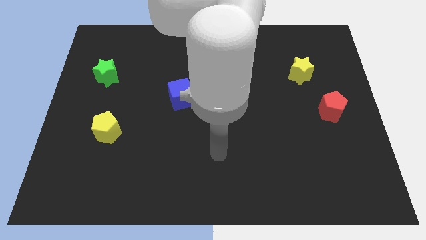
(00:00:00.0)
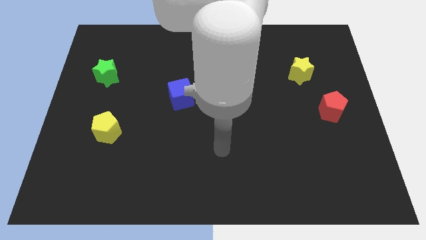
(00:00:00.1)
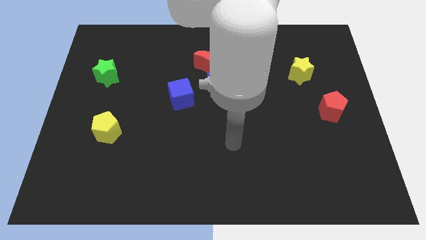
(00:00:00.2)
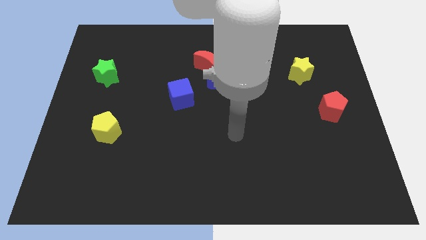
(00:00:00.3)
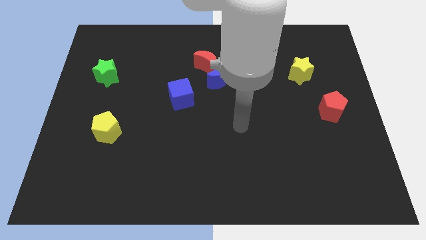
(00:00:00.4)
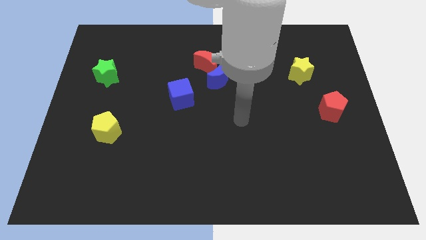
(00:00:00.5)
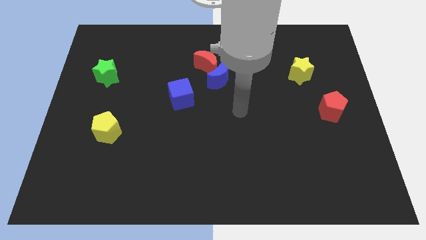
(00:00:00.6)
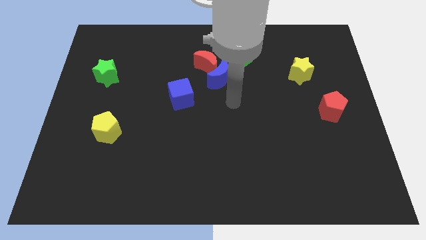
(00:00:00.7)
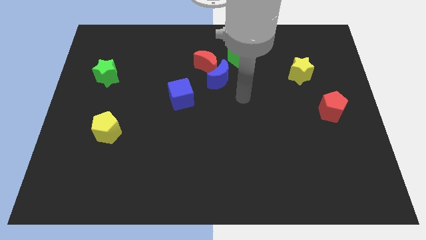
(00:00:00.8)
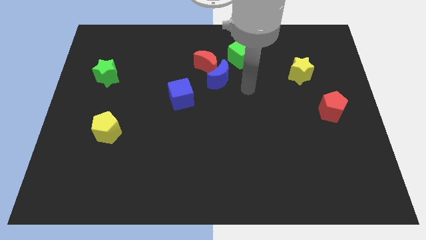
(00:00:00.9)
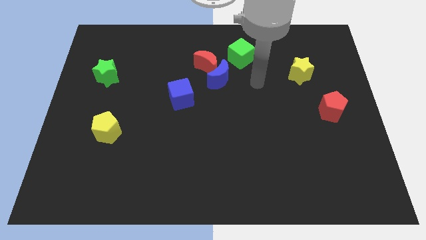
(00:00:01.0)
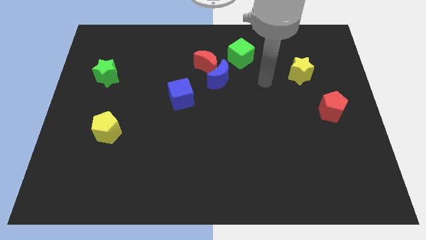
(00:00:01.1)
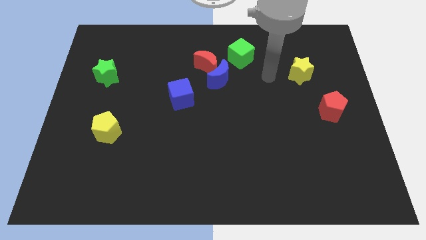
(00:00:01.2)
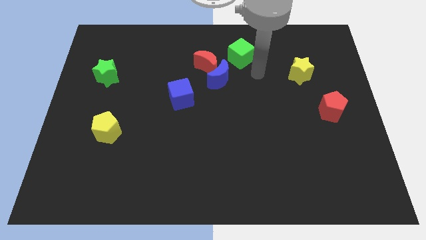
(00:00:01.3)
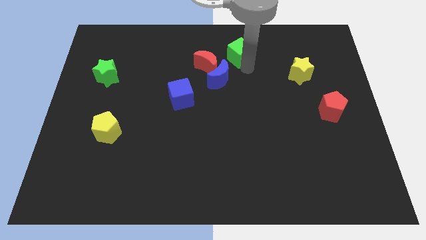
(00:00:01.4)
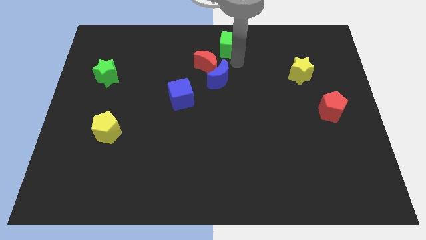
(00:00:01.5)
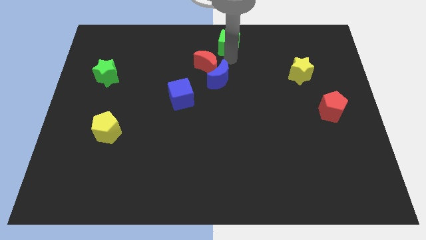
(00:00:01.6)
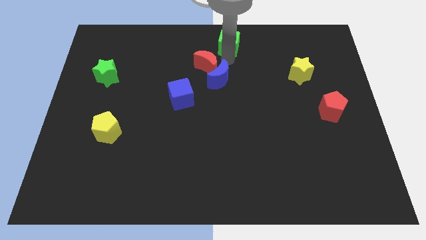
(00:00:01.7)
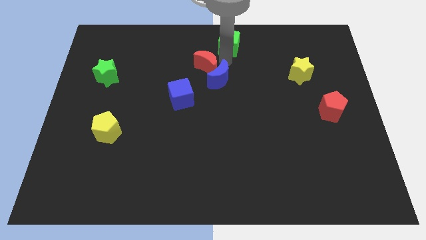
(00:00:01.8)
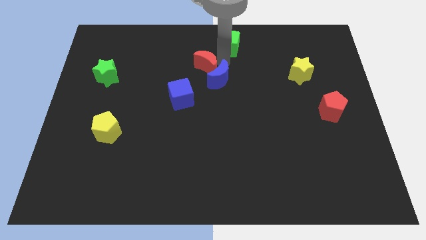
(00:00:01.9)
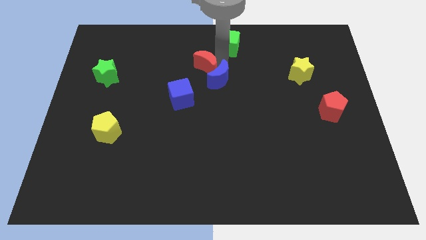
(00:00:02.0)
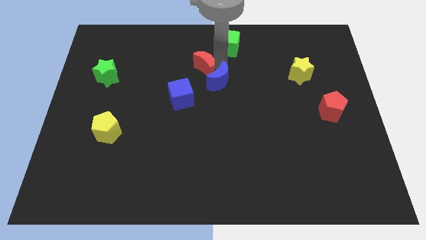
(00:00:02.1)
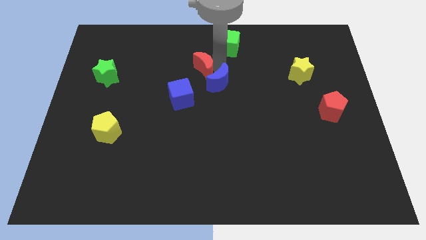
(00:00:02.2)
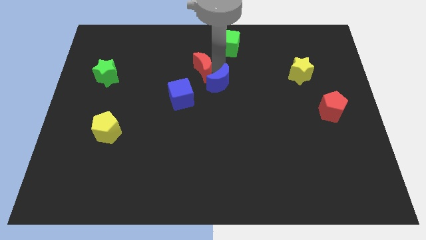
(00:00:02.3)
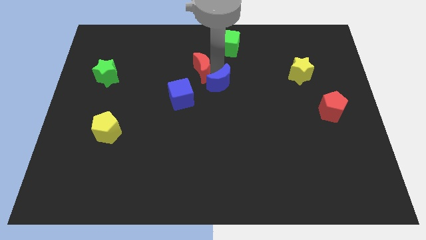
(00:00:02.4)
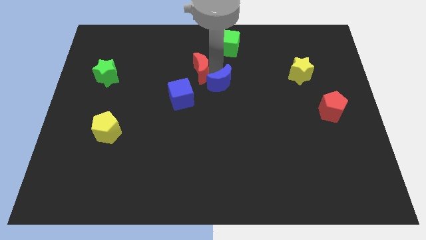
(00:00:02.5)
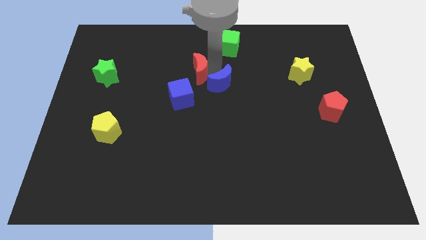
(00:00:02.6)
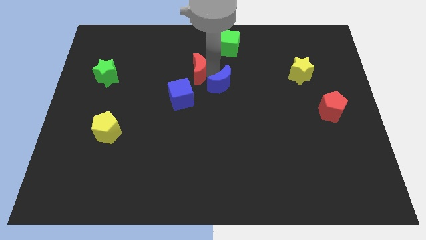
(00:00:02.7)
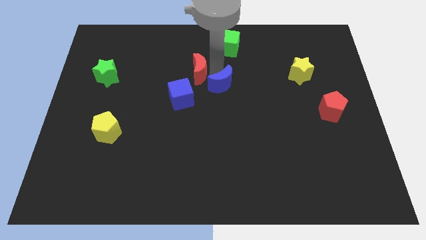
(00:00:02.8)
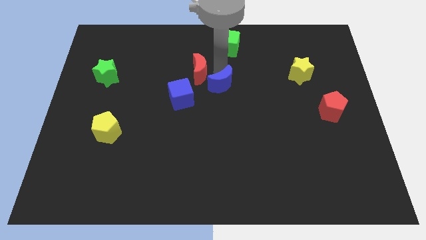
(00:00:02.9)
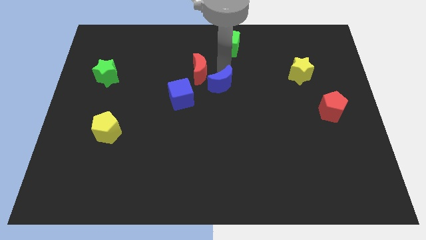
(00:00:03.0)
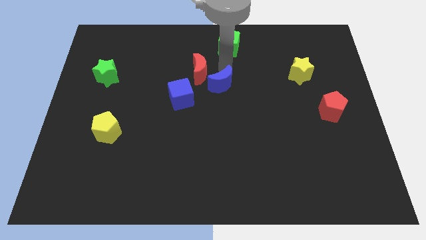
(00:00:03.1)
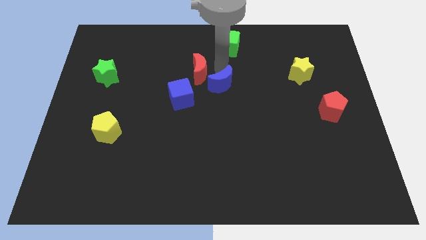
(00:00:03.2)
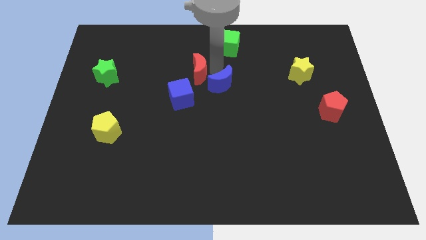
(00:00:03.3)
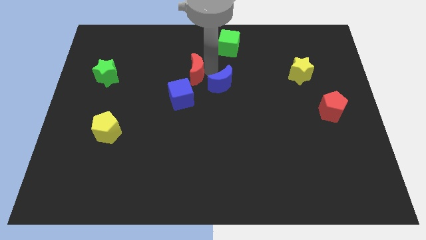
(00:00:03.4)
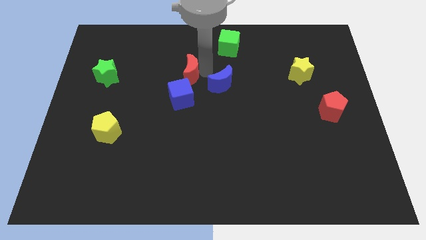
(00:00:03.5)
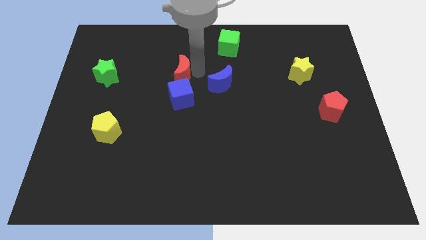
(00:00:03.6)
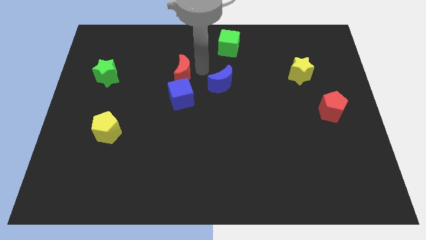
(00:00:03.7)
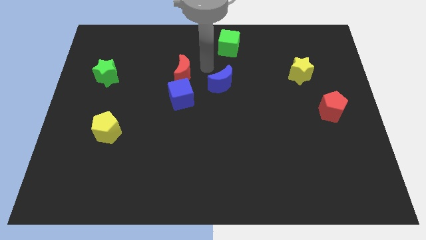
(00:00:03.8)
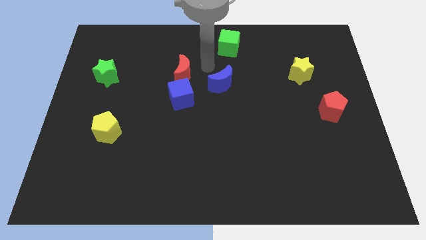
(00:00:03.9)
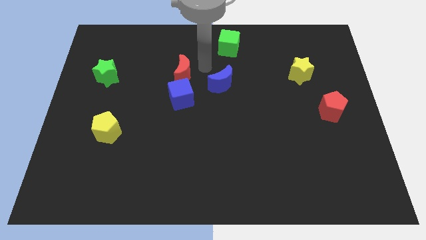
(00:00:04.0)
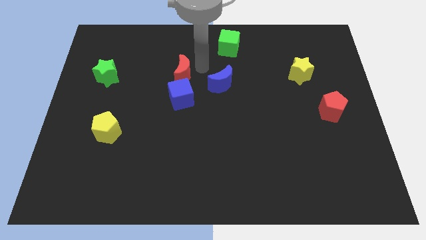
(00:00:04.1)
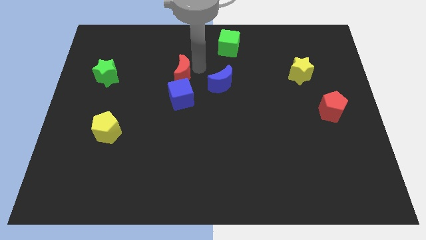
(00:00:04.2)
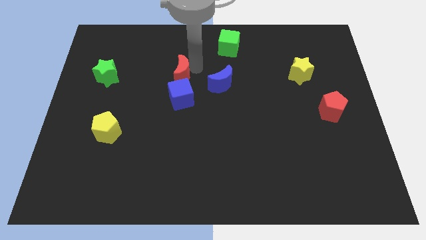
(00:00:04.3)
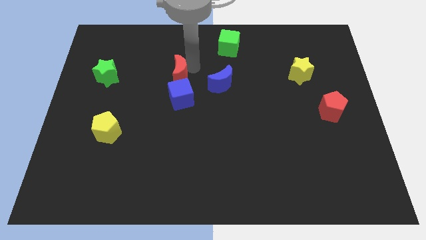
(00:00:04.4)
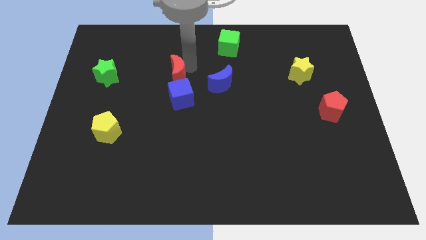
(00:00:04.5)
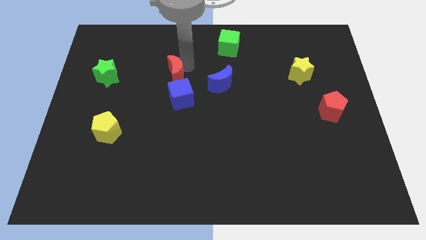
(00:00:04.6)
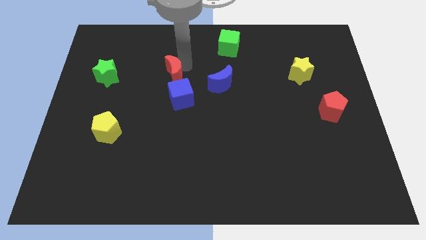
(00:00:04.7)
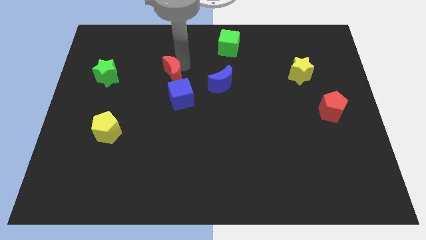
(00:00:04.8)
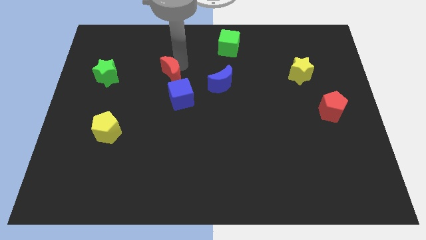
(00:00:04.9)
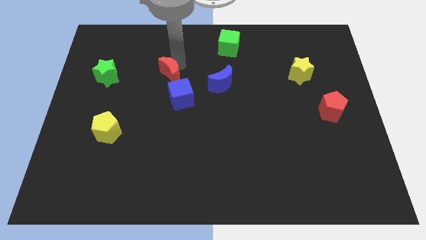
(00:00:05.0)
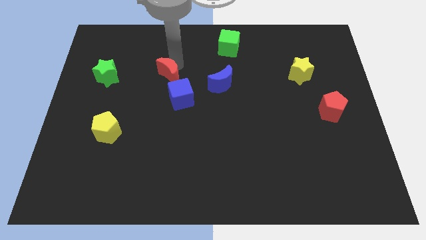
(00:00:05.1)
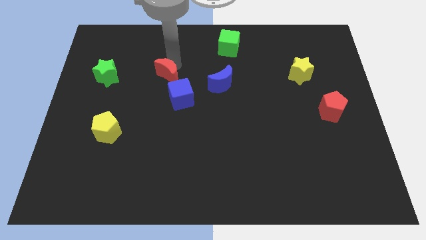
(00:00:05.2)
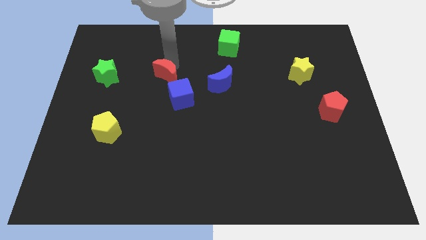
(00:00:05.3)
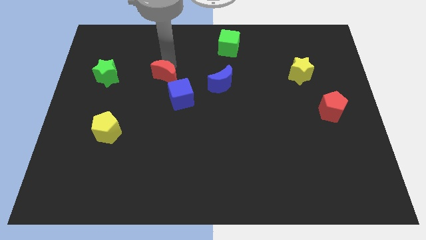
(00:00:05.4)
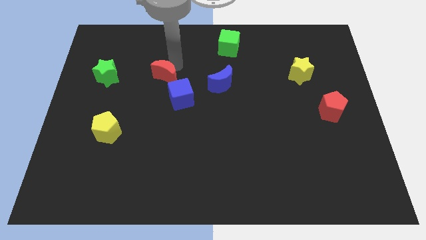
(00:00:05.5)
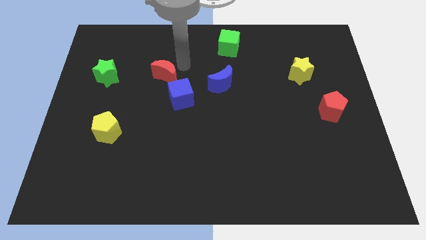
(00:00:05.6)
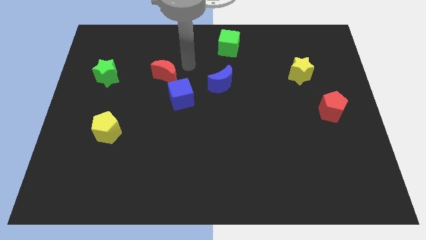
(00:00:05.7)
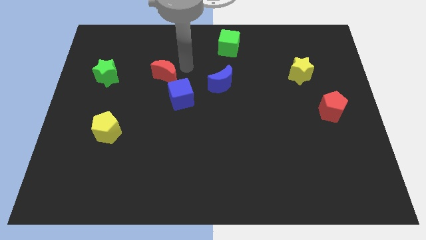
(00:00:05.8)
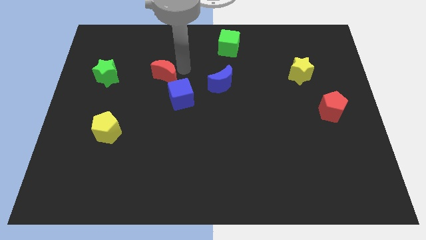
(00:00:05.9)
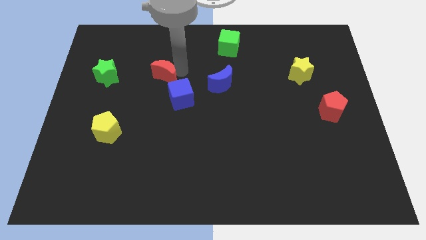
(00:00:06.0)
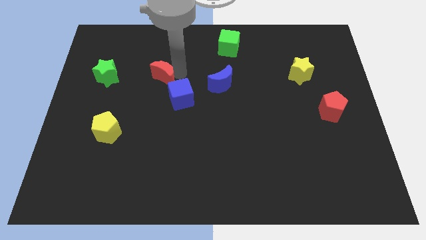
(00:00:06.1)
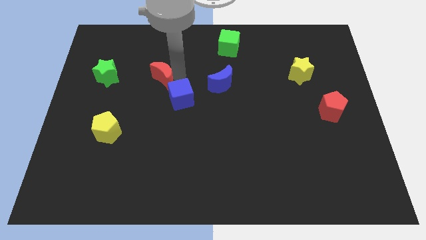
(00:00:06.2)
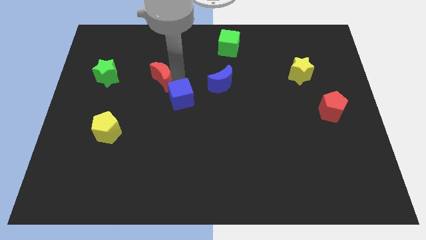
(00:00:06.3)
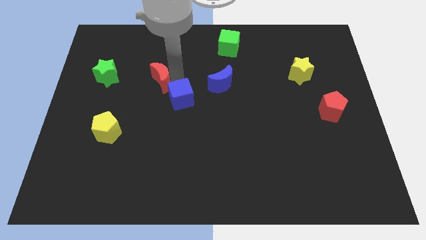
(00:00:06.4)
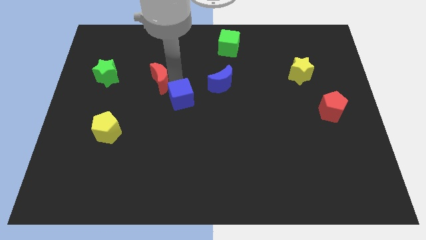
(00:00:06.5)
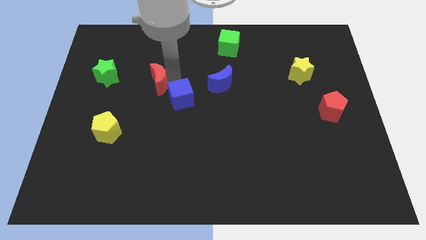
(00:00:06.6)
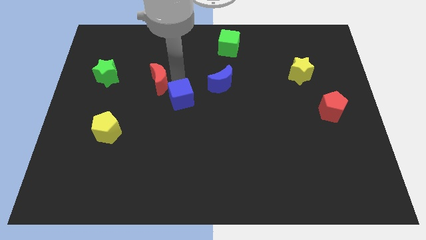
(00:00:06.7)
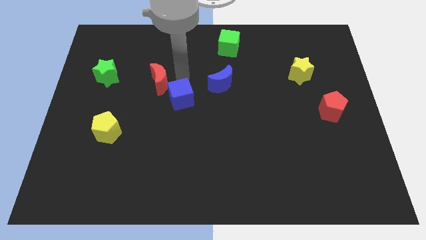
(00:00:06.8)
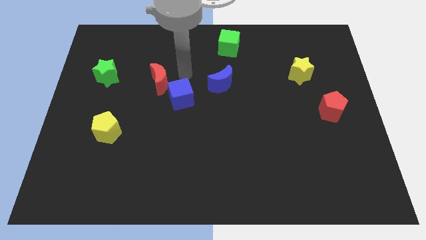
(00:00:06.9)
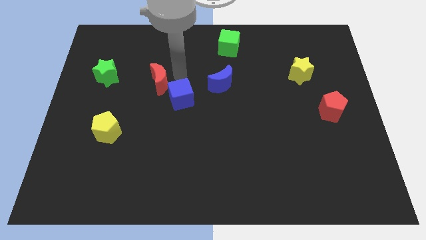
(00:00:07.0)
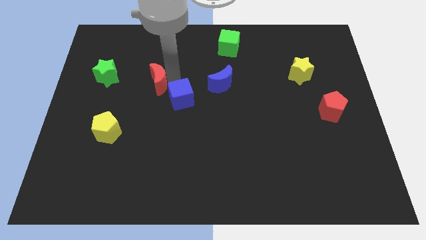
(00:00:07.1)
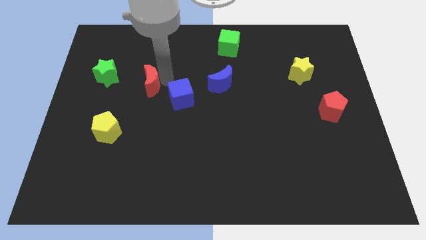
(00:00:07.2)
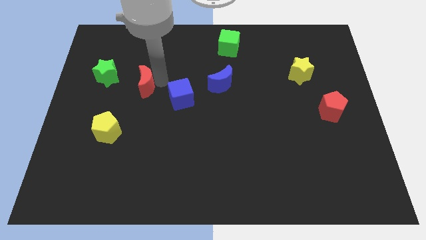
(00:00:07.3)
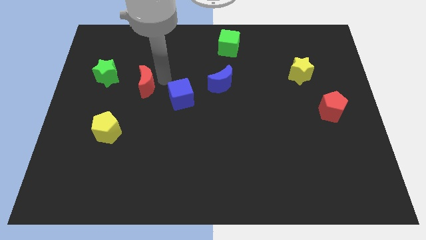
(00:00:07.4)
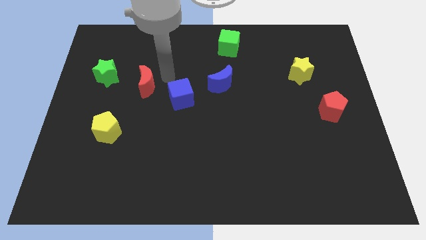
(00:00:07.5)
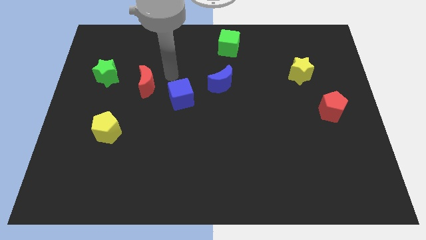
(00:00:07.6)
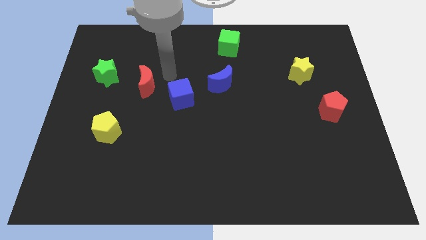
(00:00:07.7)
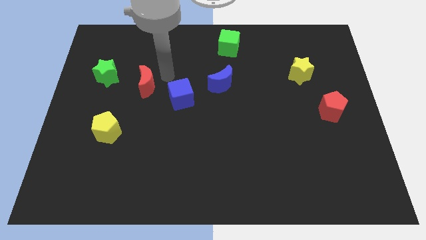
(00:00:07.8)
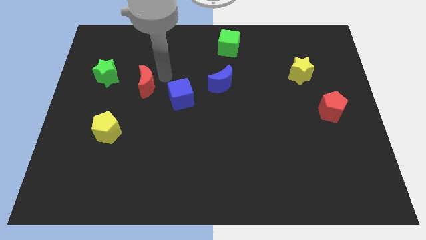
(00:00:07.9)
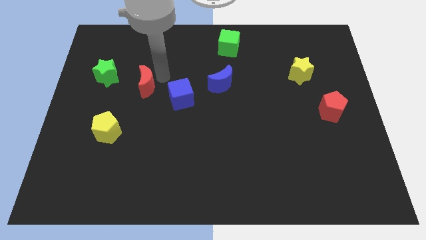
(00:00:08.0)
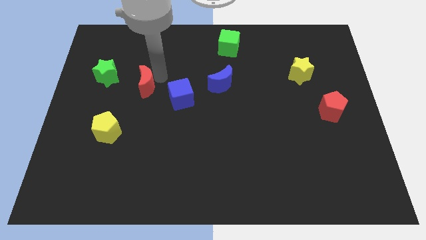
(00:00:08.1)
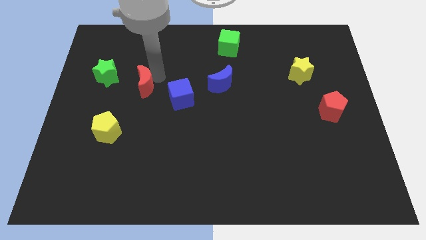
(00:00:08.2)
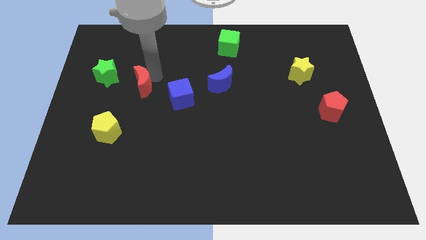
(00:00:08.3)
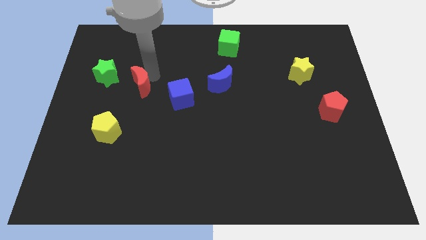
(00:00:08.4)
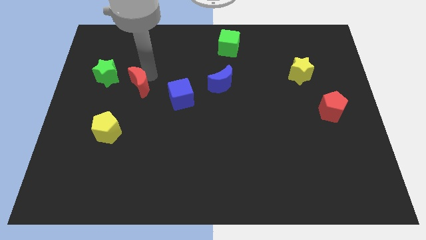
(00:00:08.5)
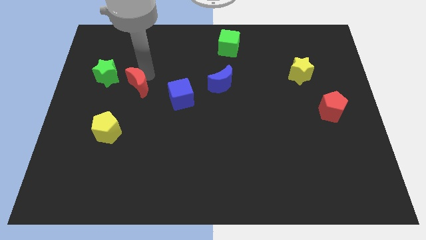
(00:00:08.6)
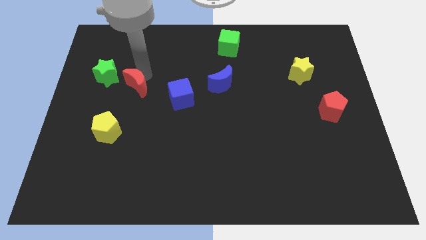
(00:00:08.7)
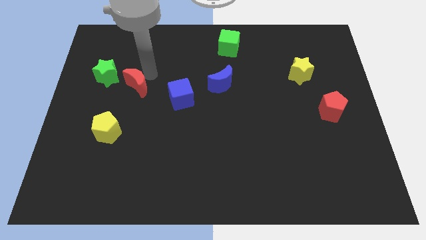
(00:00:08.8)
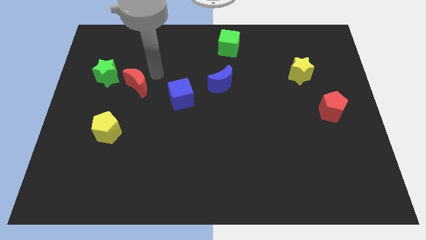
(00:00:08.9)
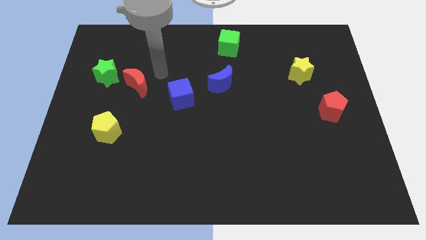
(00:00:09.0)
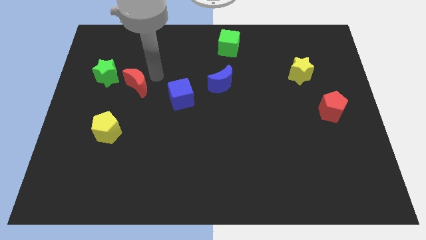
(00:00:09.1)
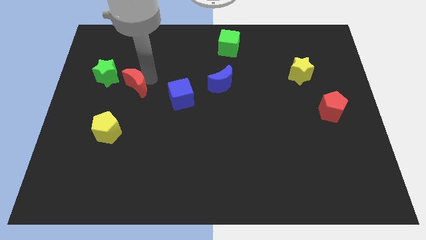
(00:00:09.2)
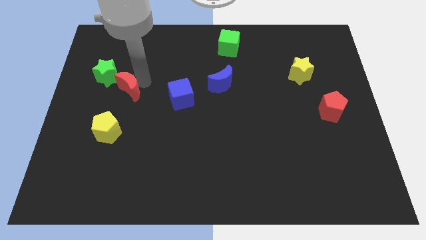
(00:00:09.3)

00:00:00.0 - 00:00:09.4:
put the red moon above the yellow pentagon
